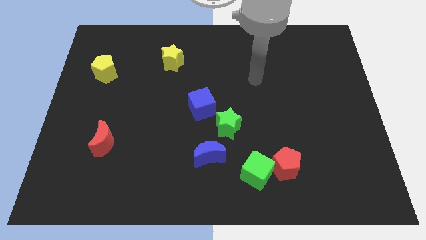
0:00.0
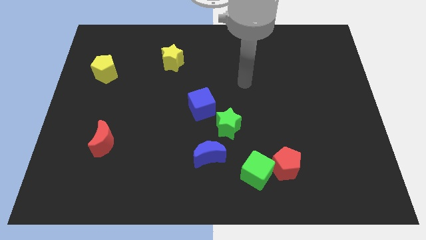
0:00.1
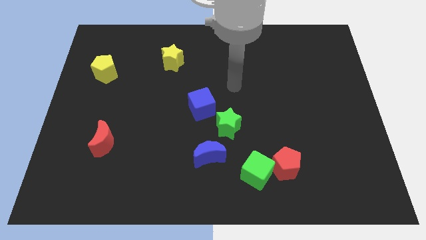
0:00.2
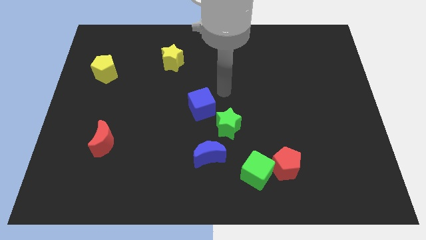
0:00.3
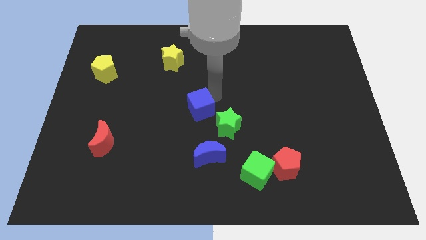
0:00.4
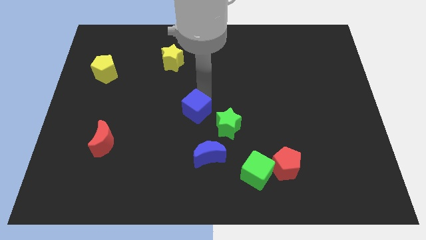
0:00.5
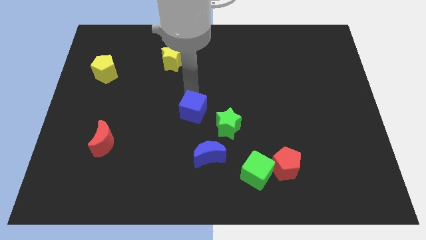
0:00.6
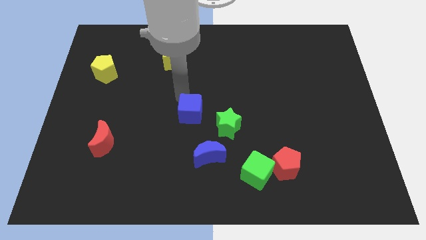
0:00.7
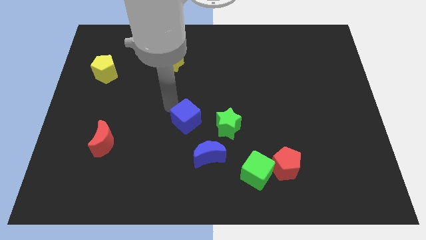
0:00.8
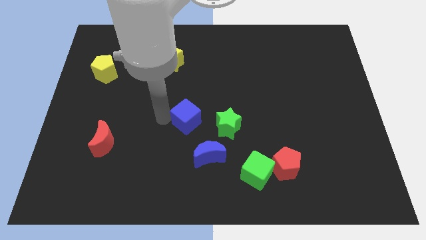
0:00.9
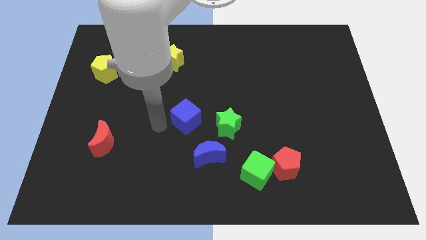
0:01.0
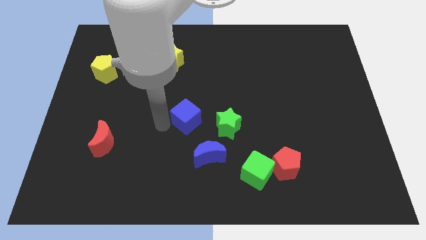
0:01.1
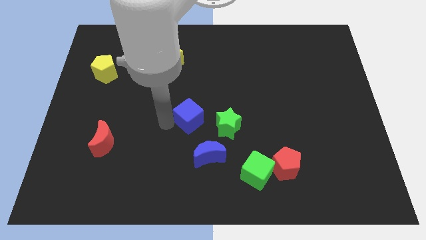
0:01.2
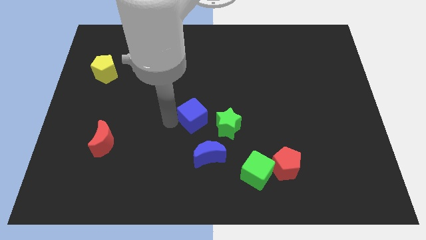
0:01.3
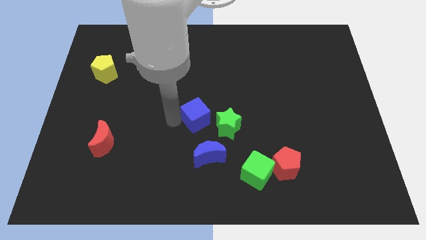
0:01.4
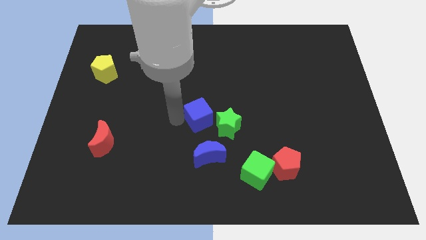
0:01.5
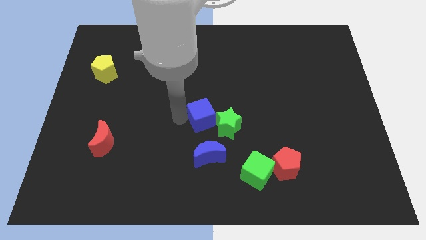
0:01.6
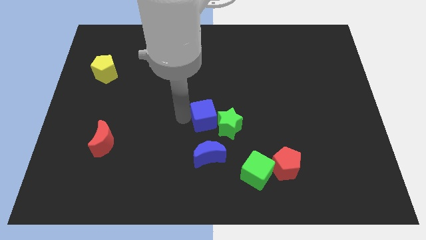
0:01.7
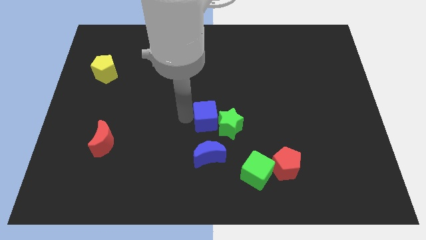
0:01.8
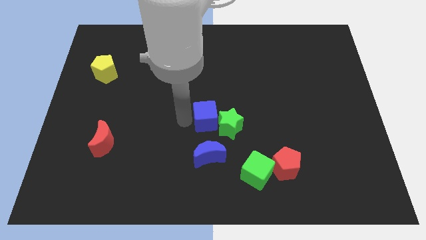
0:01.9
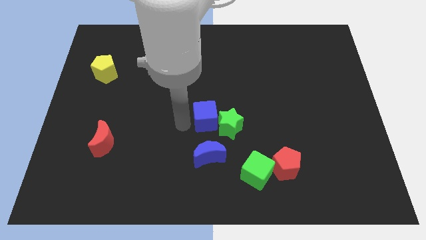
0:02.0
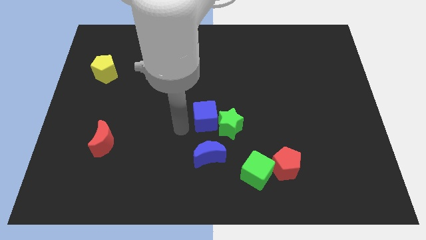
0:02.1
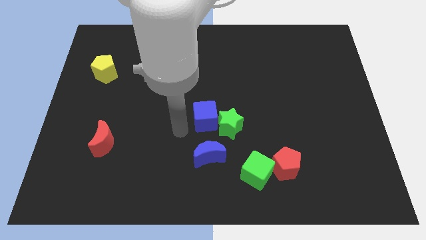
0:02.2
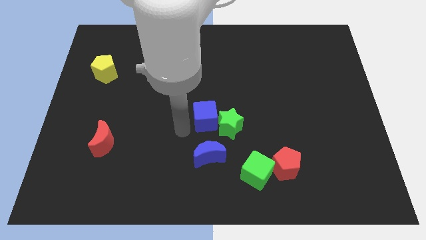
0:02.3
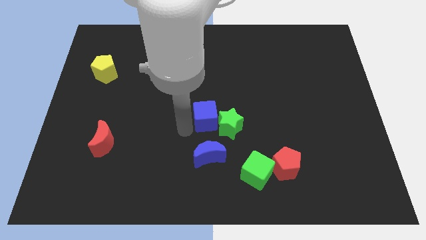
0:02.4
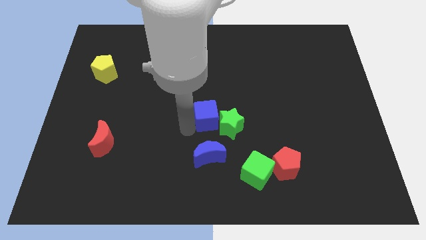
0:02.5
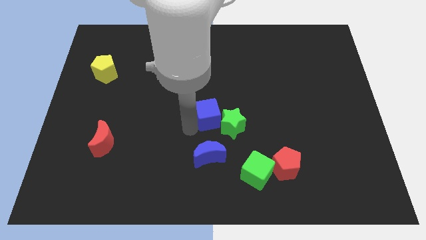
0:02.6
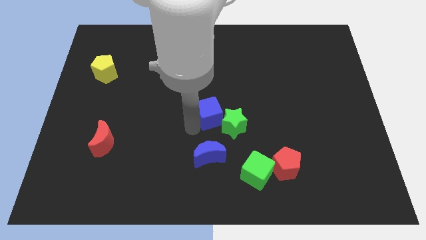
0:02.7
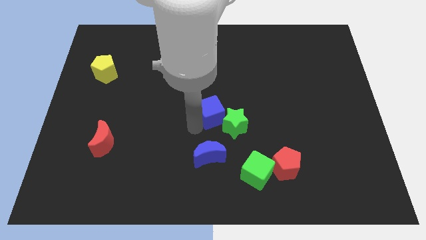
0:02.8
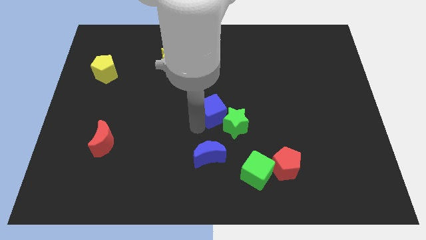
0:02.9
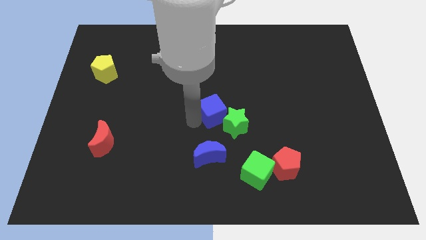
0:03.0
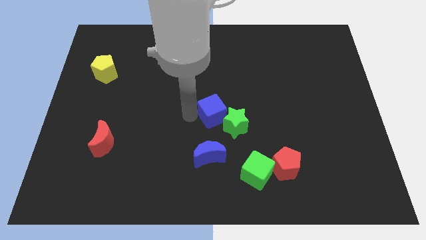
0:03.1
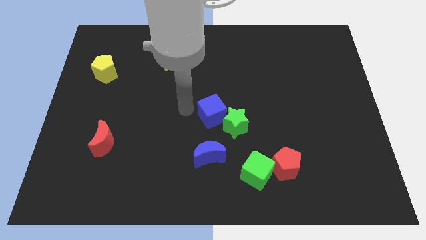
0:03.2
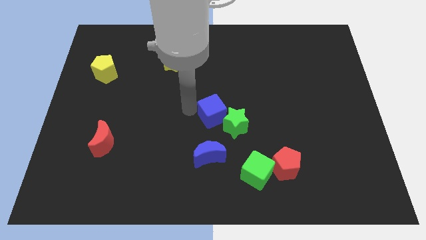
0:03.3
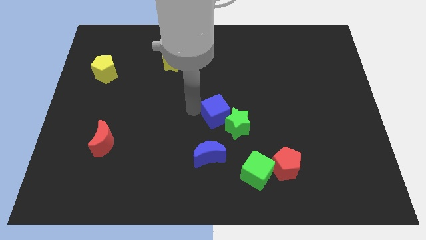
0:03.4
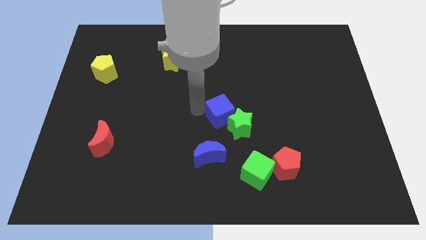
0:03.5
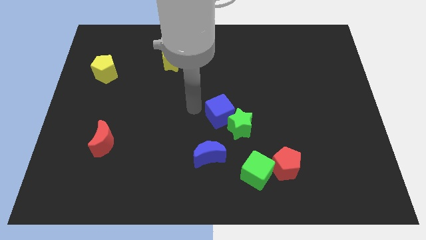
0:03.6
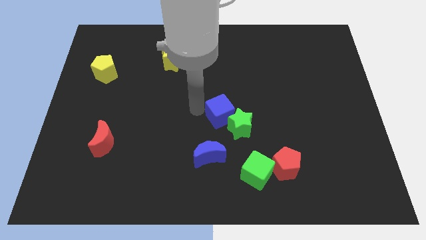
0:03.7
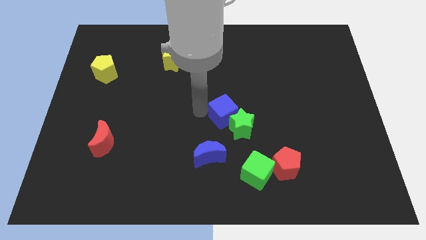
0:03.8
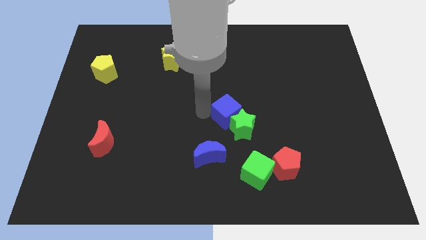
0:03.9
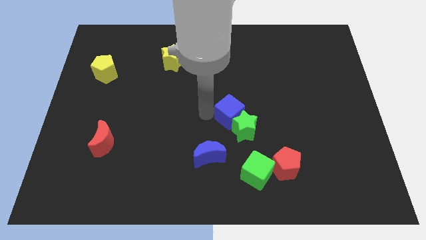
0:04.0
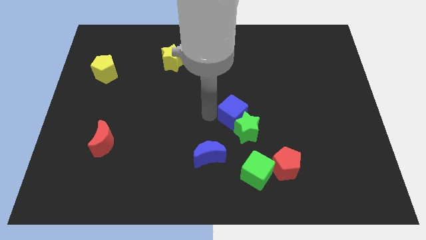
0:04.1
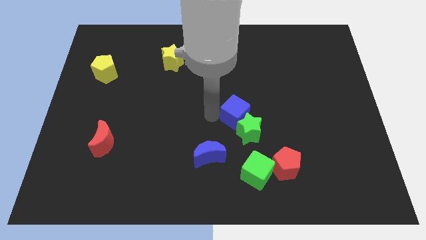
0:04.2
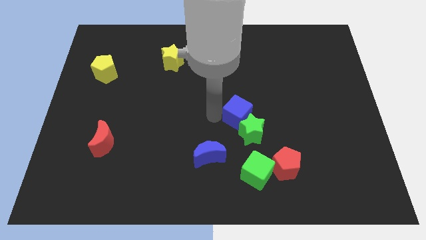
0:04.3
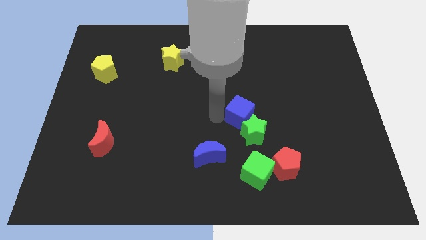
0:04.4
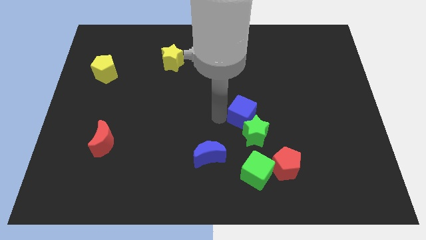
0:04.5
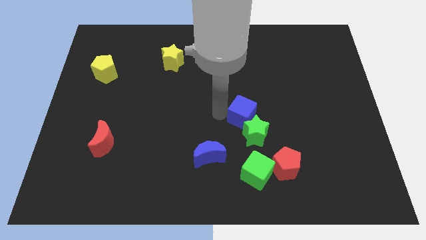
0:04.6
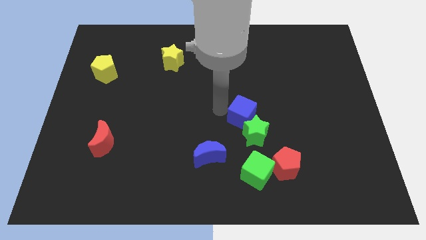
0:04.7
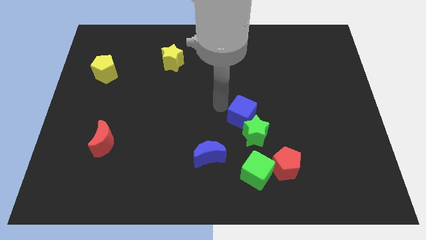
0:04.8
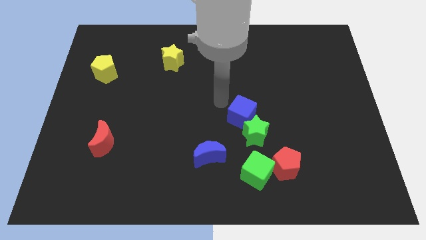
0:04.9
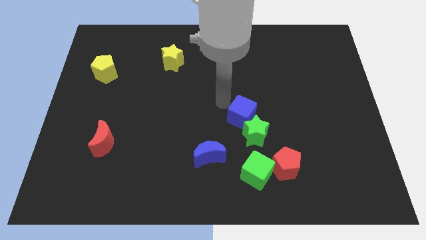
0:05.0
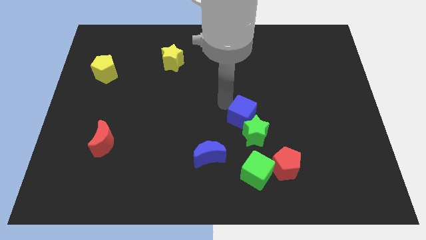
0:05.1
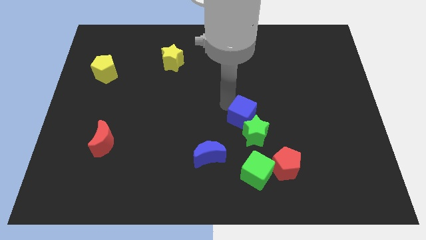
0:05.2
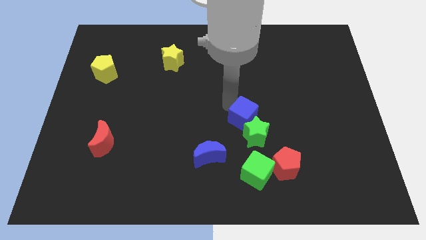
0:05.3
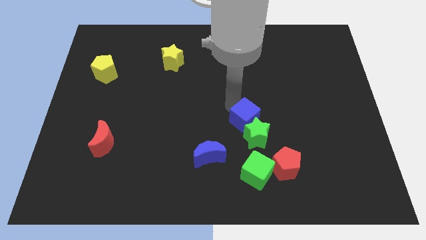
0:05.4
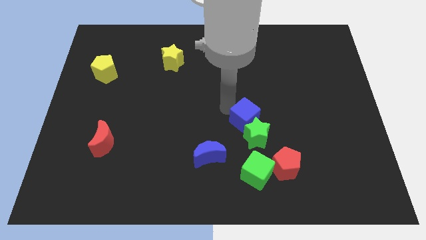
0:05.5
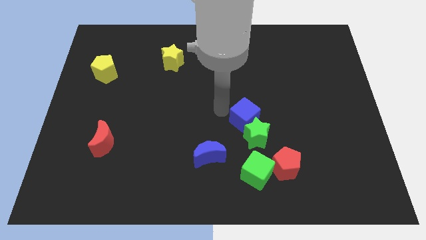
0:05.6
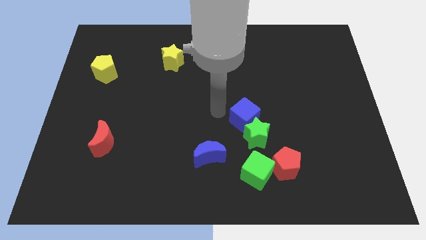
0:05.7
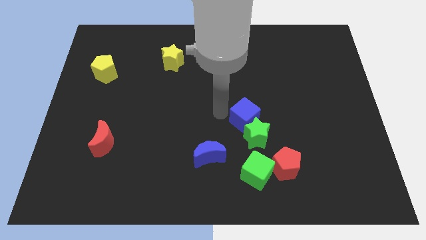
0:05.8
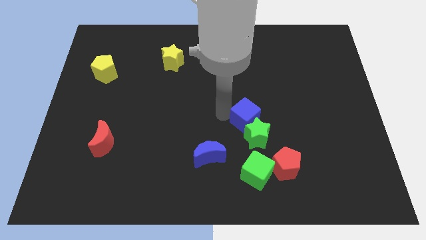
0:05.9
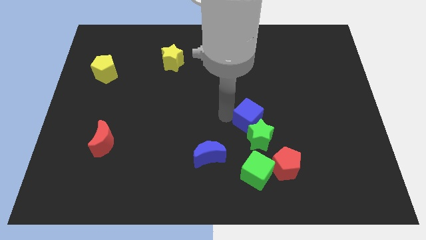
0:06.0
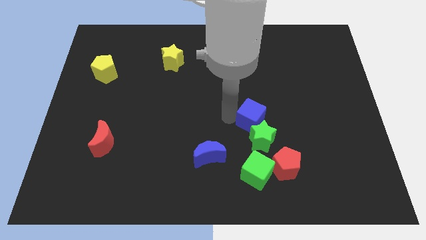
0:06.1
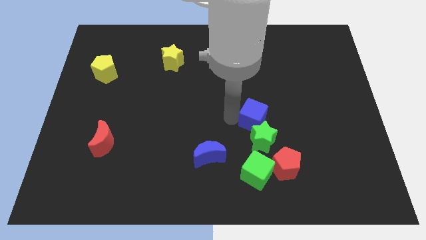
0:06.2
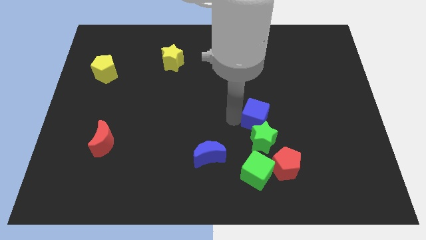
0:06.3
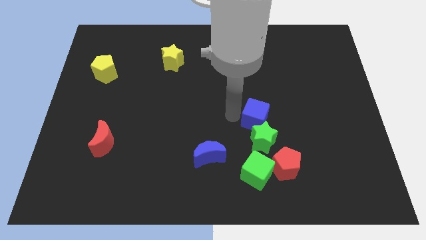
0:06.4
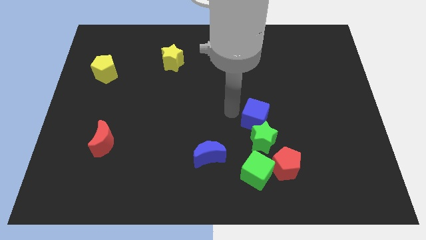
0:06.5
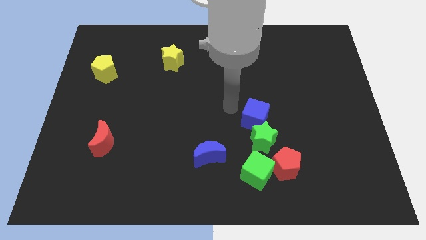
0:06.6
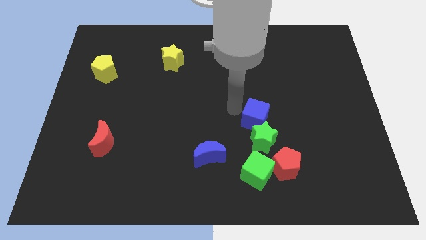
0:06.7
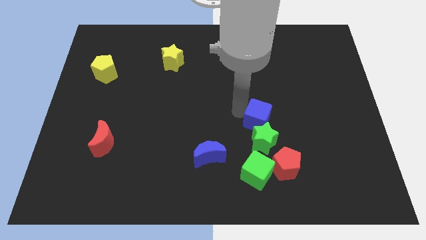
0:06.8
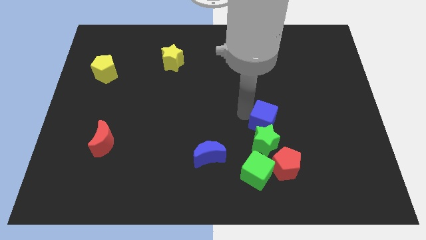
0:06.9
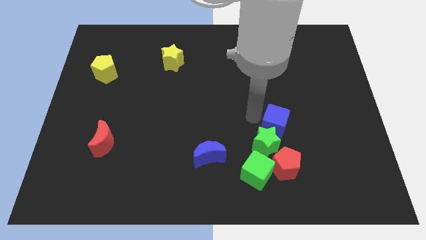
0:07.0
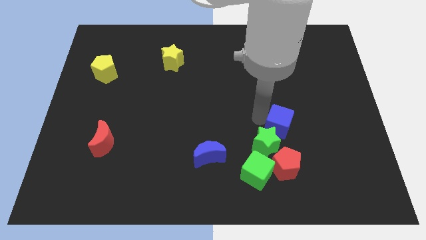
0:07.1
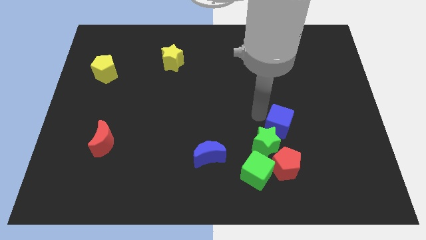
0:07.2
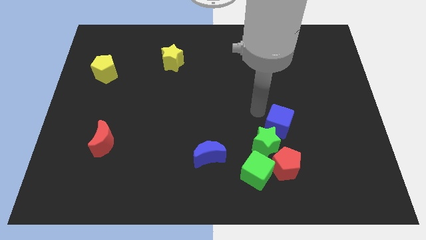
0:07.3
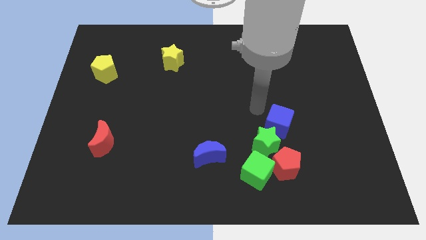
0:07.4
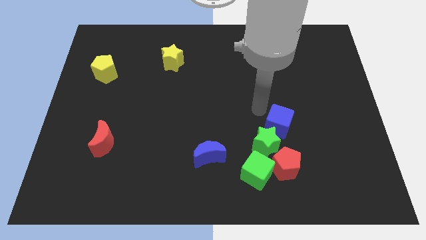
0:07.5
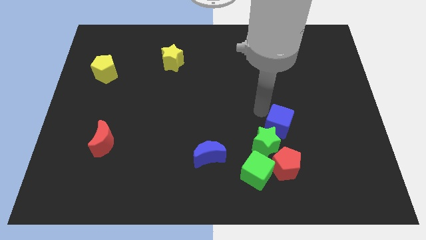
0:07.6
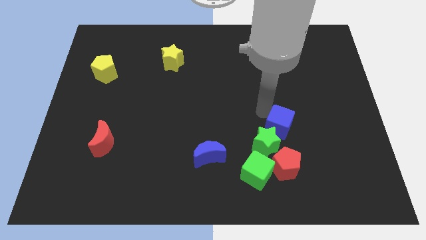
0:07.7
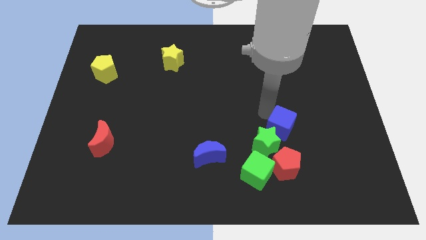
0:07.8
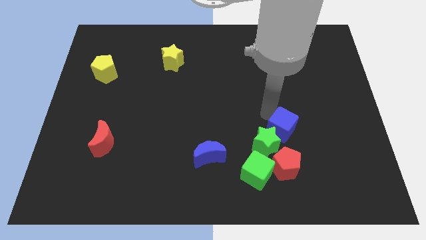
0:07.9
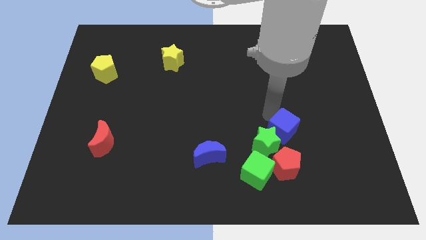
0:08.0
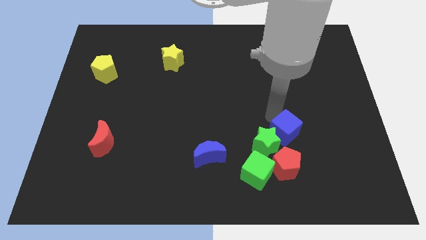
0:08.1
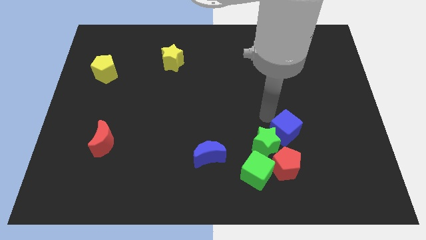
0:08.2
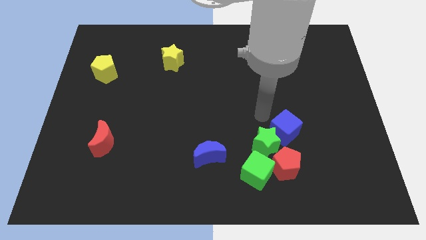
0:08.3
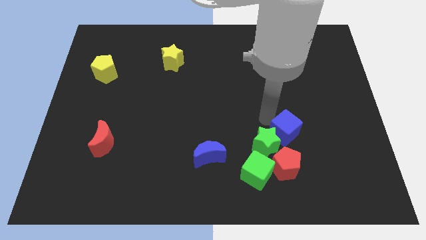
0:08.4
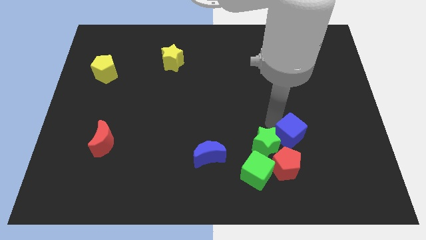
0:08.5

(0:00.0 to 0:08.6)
put the blue cube to the top right side of the red pentagon
